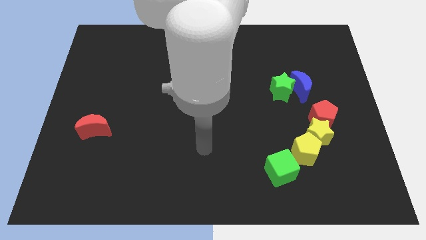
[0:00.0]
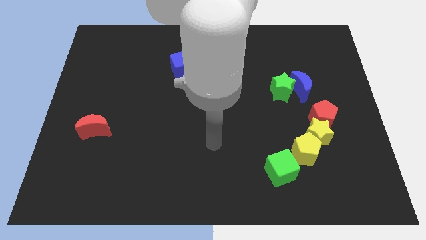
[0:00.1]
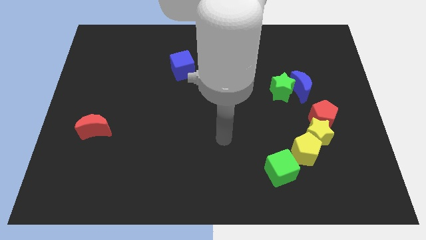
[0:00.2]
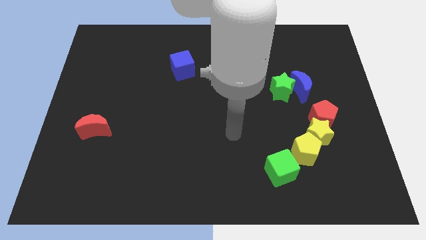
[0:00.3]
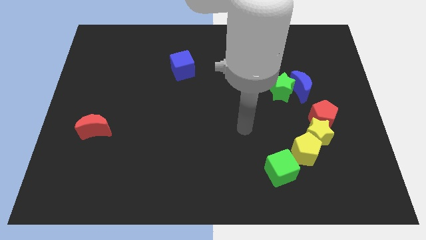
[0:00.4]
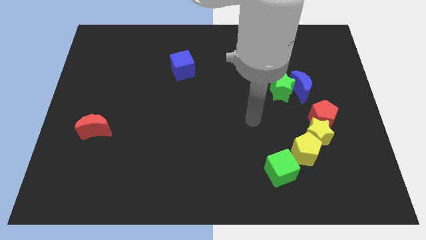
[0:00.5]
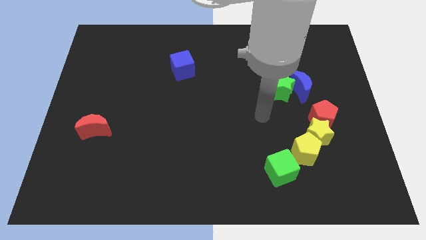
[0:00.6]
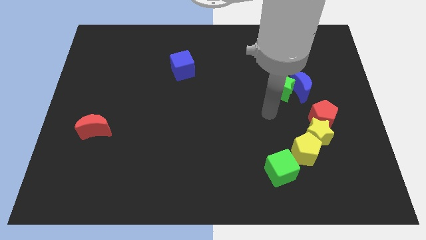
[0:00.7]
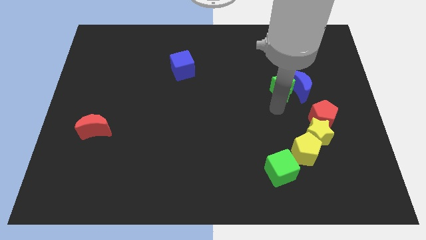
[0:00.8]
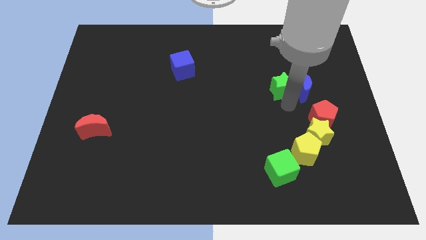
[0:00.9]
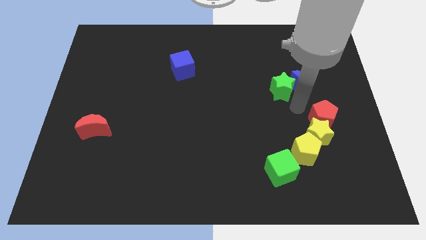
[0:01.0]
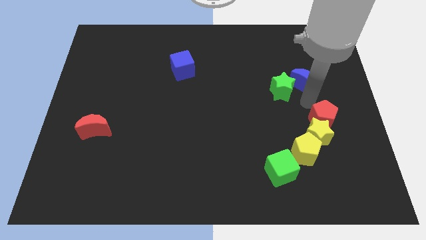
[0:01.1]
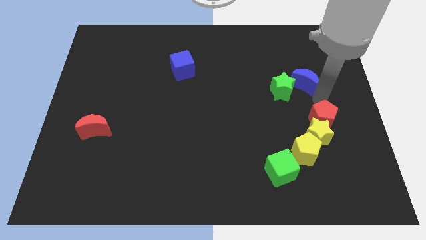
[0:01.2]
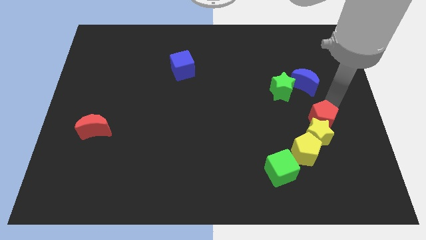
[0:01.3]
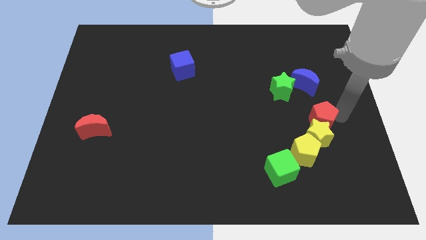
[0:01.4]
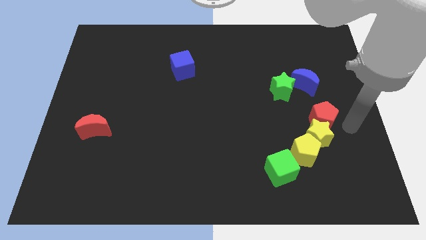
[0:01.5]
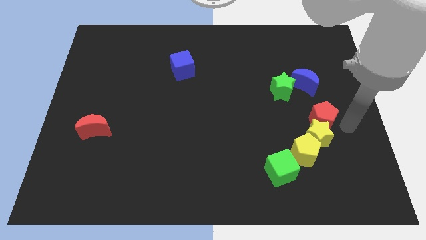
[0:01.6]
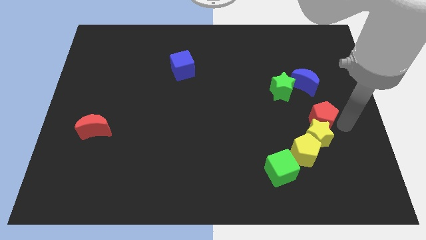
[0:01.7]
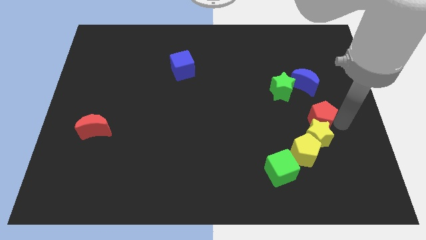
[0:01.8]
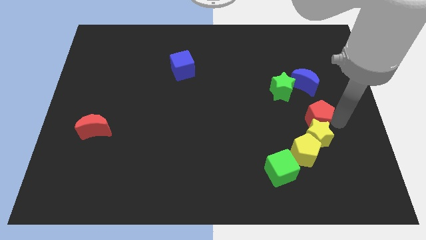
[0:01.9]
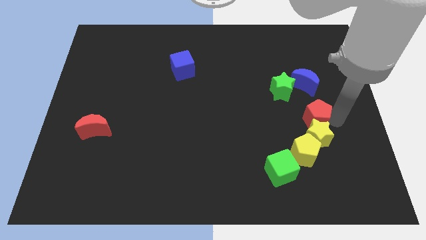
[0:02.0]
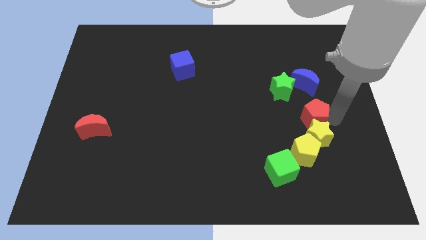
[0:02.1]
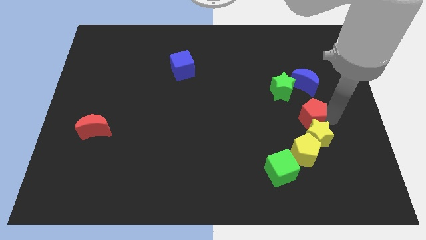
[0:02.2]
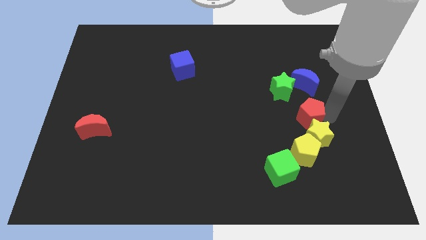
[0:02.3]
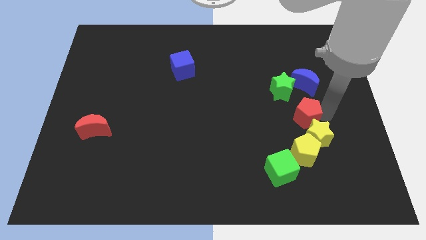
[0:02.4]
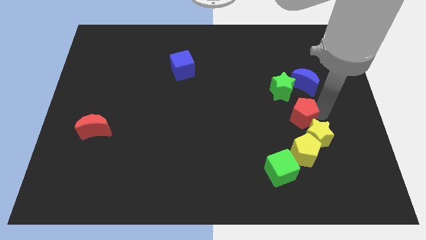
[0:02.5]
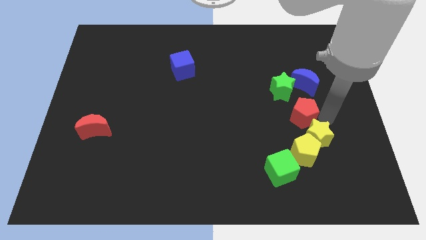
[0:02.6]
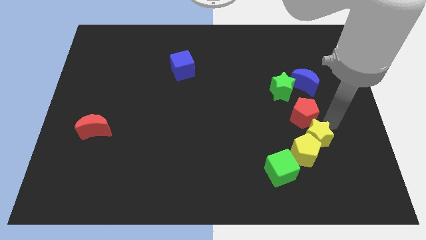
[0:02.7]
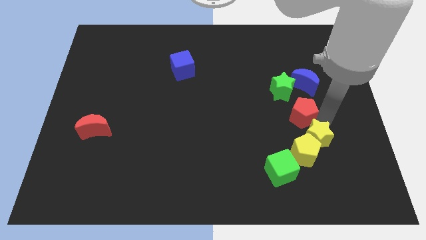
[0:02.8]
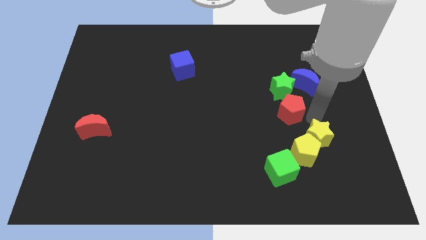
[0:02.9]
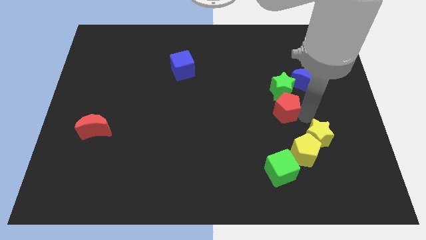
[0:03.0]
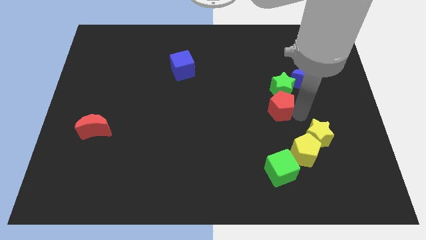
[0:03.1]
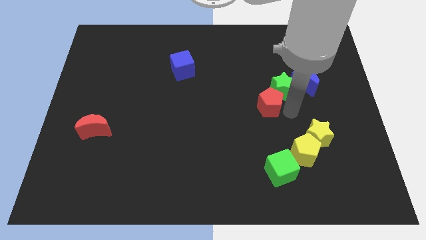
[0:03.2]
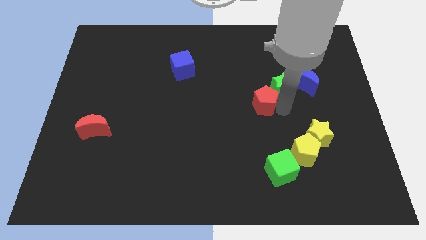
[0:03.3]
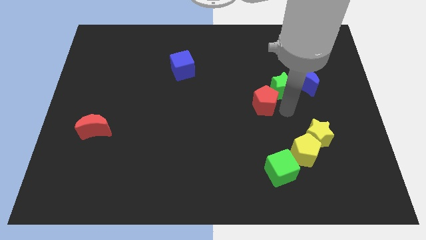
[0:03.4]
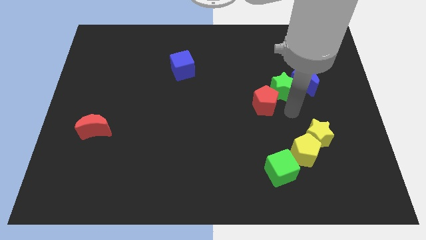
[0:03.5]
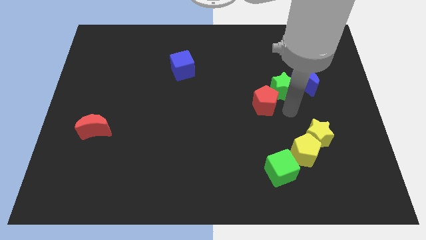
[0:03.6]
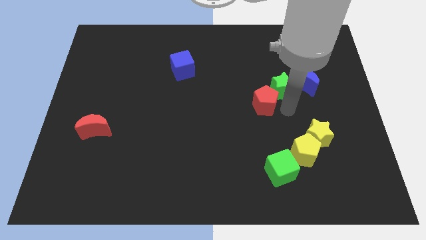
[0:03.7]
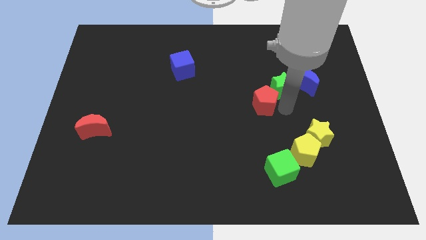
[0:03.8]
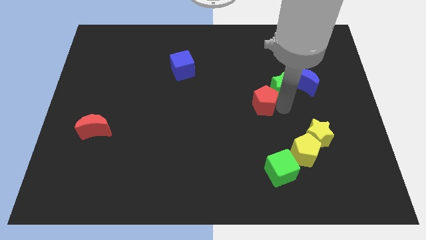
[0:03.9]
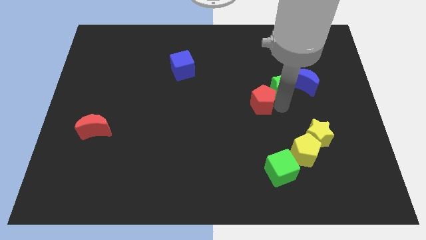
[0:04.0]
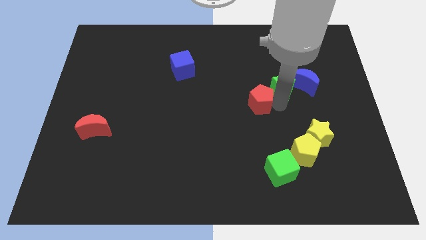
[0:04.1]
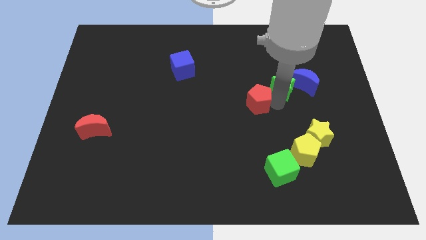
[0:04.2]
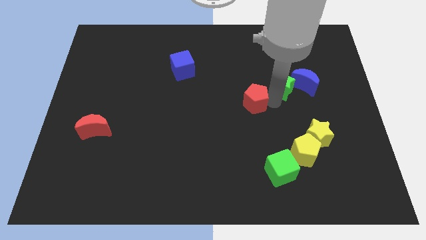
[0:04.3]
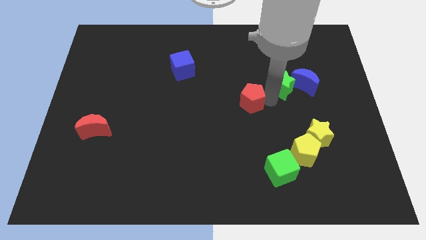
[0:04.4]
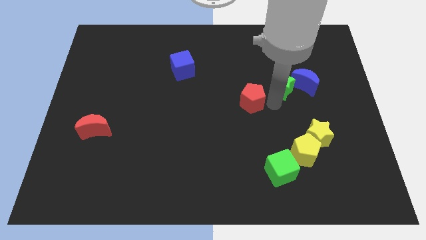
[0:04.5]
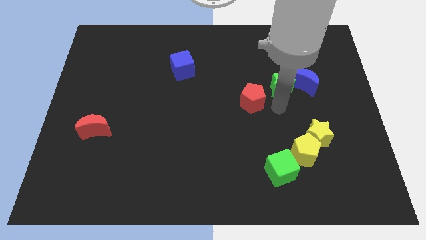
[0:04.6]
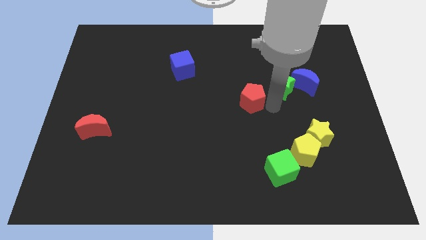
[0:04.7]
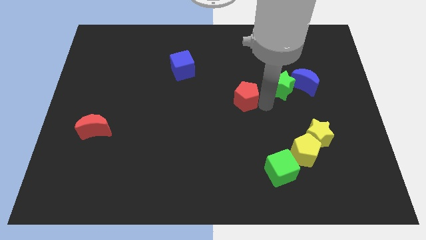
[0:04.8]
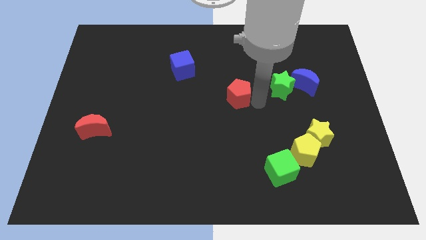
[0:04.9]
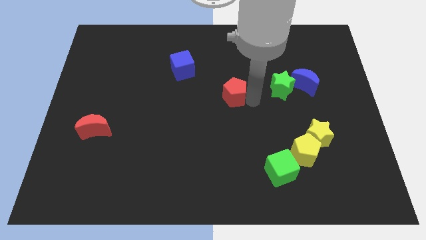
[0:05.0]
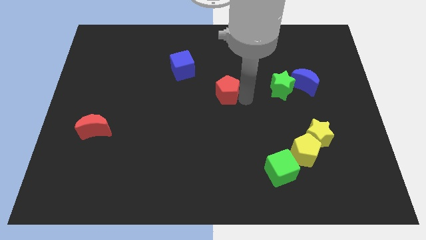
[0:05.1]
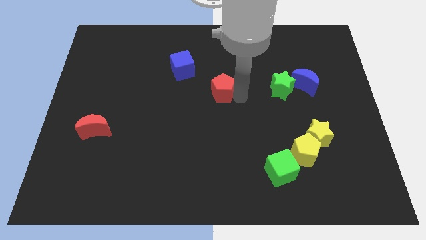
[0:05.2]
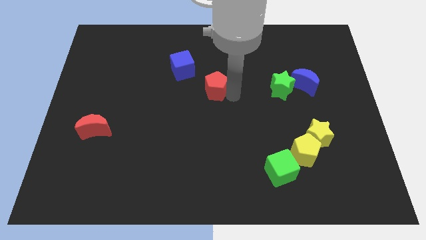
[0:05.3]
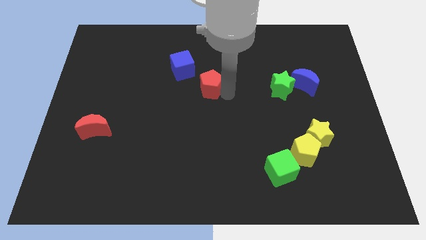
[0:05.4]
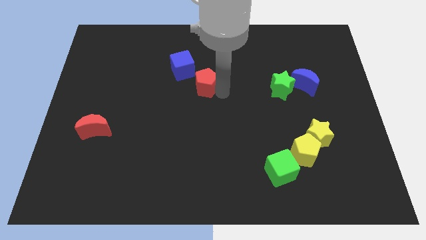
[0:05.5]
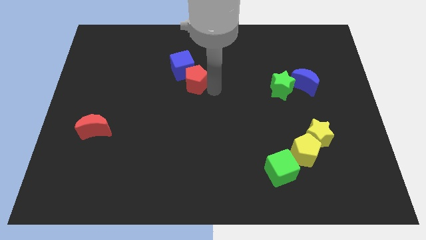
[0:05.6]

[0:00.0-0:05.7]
slide the red pentagon next to the blue cube

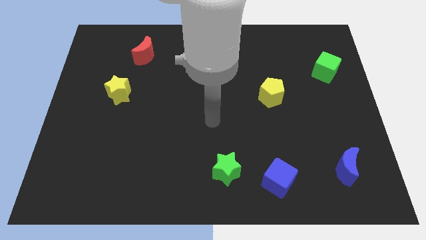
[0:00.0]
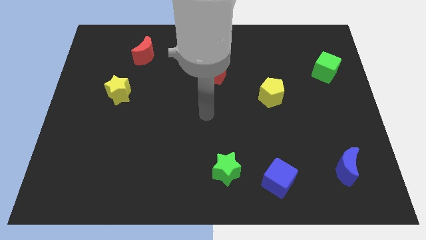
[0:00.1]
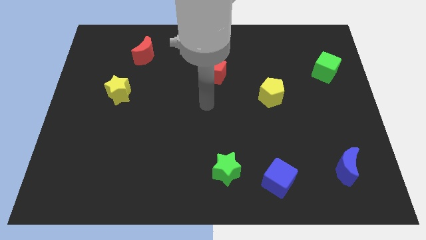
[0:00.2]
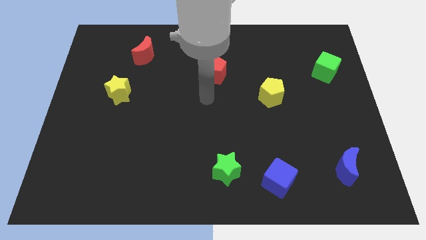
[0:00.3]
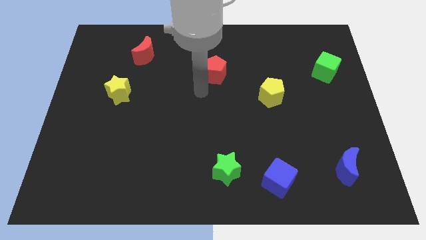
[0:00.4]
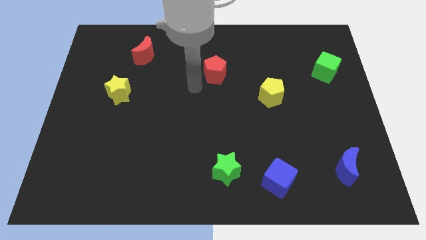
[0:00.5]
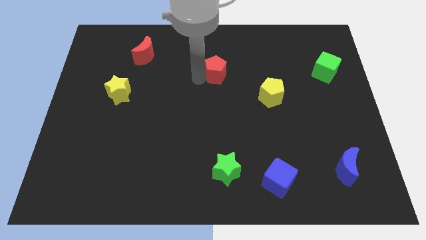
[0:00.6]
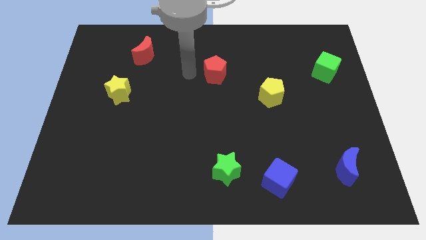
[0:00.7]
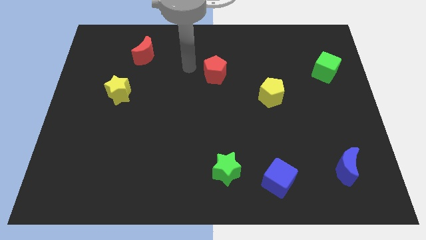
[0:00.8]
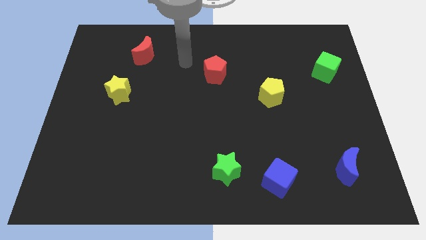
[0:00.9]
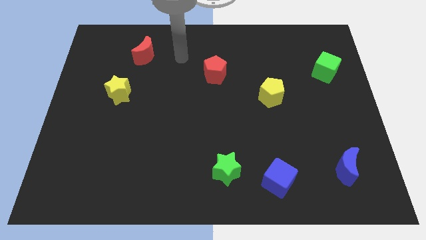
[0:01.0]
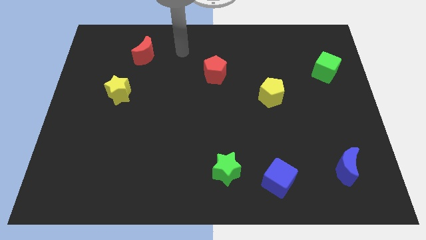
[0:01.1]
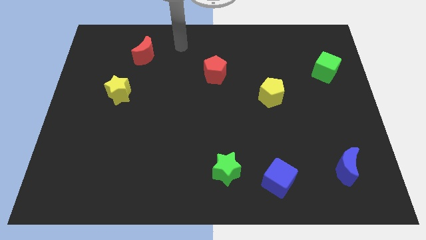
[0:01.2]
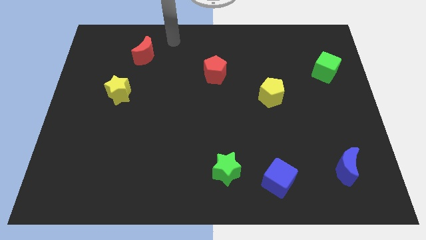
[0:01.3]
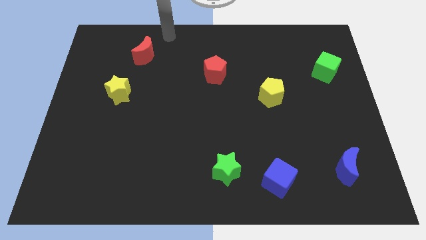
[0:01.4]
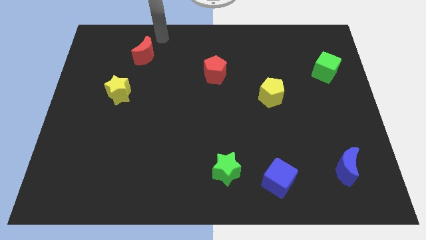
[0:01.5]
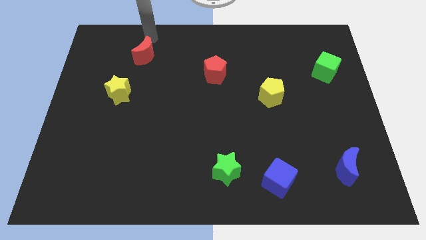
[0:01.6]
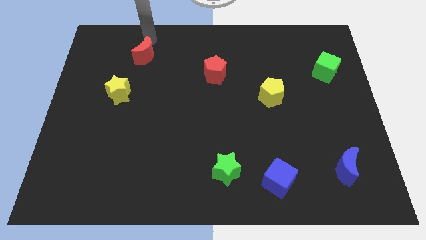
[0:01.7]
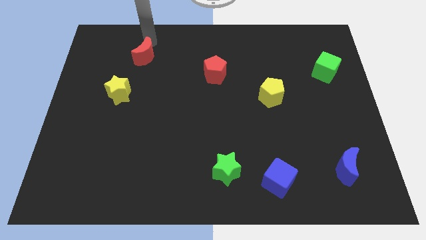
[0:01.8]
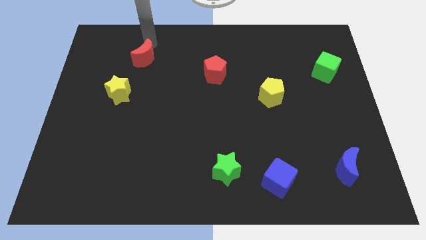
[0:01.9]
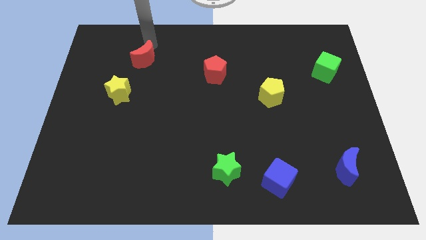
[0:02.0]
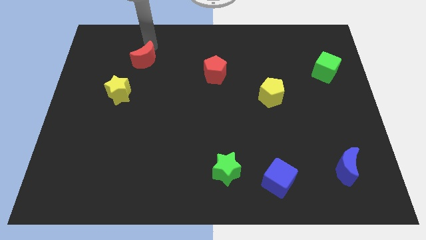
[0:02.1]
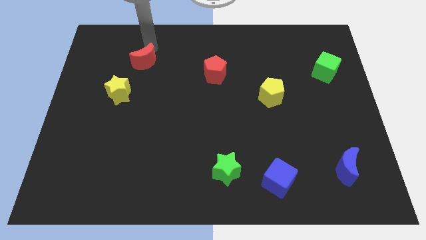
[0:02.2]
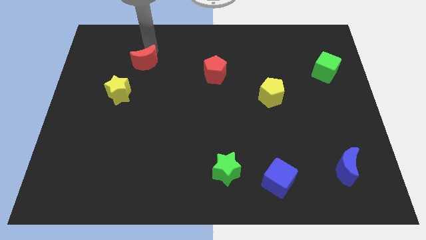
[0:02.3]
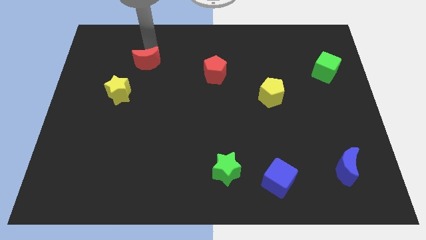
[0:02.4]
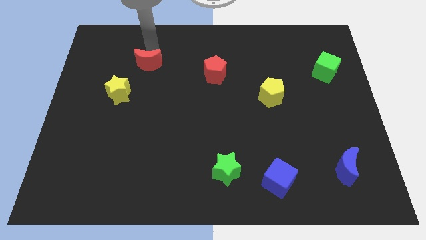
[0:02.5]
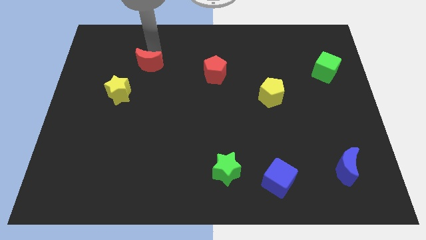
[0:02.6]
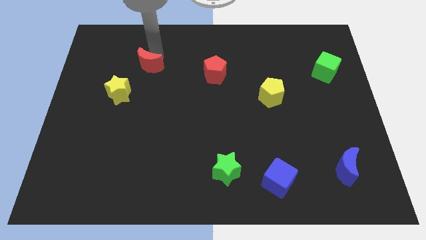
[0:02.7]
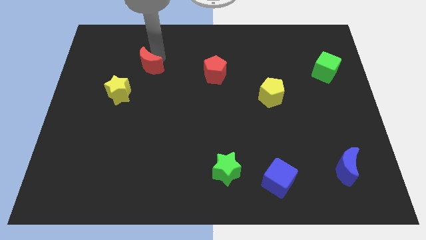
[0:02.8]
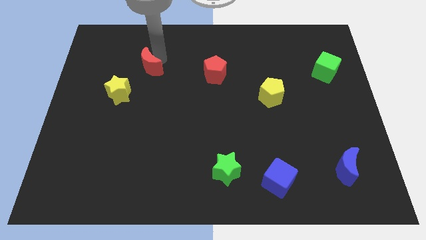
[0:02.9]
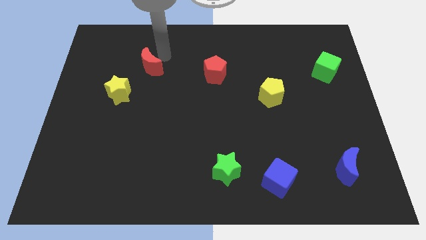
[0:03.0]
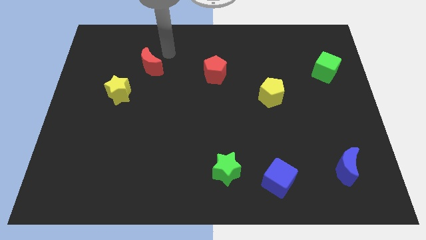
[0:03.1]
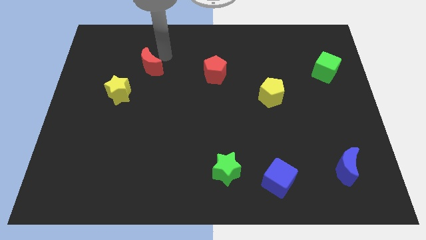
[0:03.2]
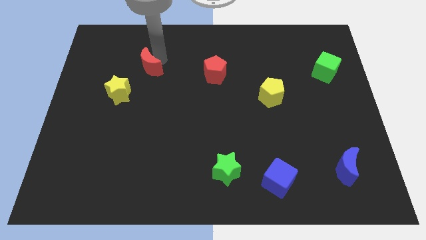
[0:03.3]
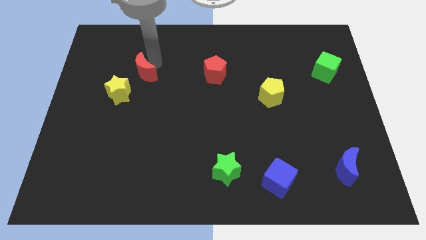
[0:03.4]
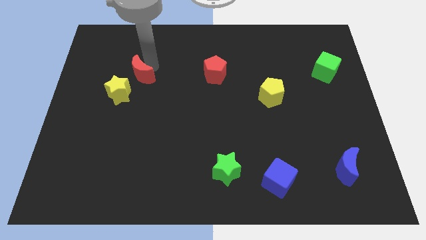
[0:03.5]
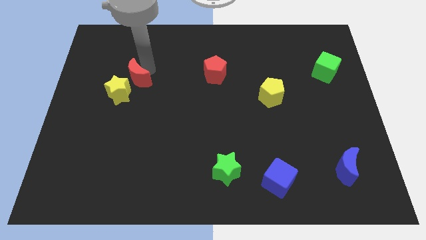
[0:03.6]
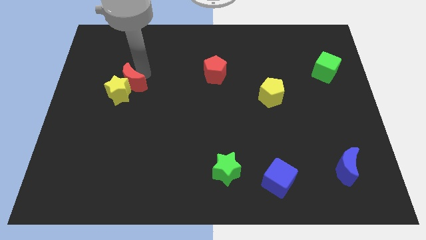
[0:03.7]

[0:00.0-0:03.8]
put the red moon close to the yellow star
